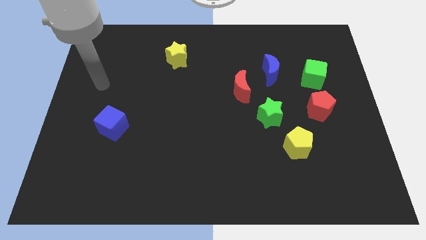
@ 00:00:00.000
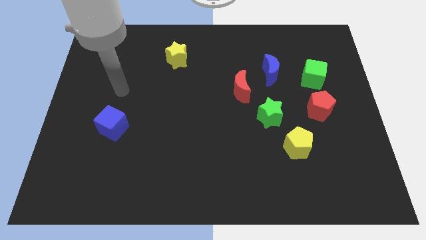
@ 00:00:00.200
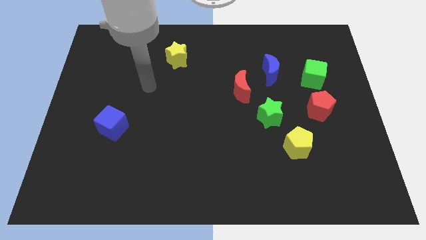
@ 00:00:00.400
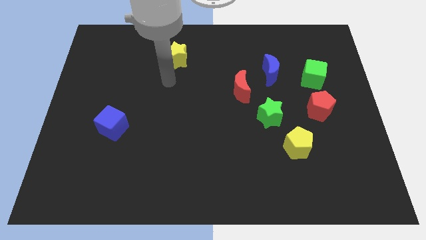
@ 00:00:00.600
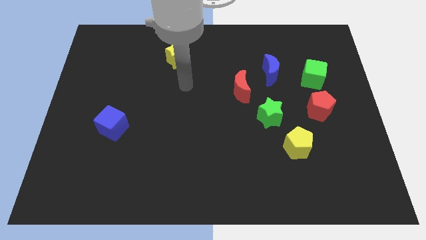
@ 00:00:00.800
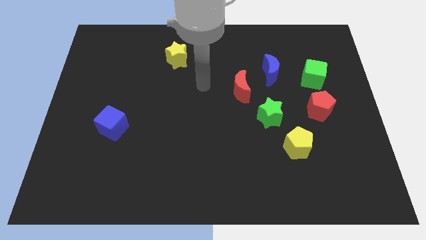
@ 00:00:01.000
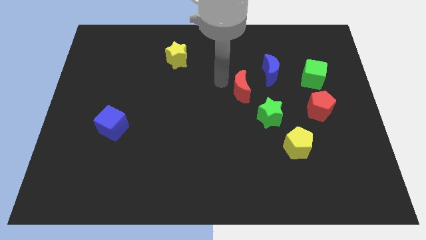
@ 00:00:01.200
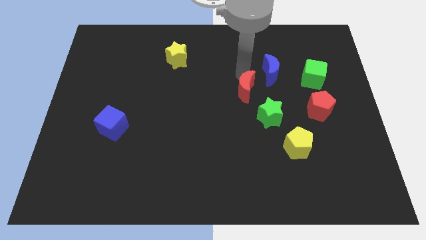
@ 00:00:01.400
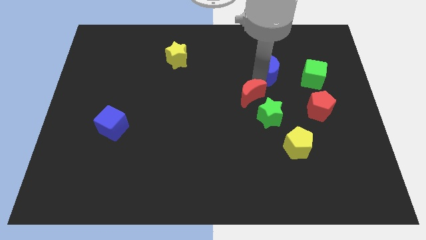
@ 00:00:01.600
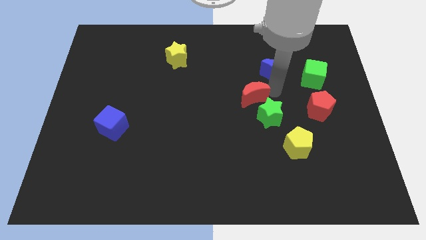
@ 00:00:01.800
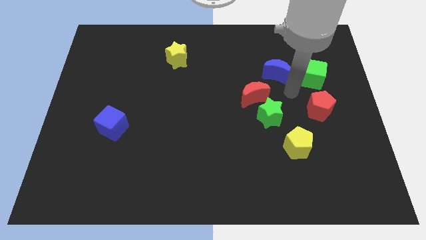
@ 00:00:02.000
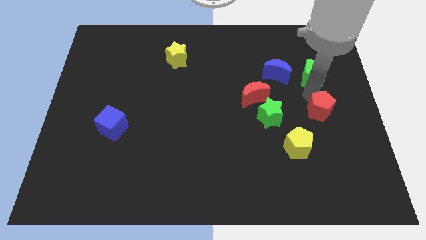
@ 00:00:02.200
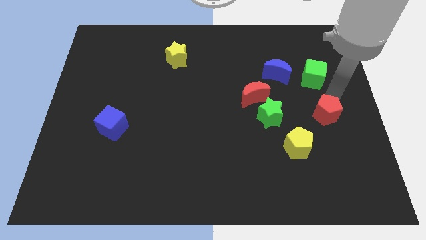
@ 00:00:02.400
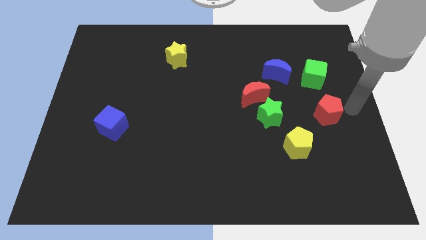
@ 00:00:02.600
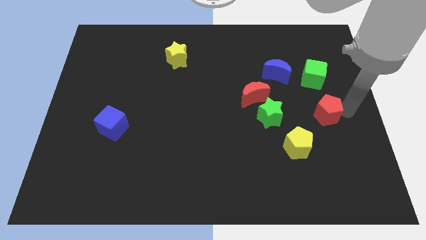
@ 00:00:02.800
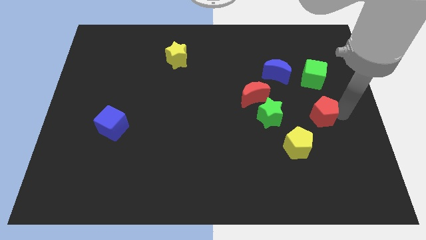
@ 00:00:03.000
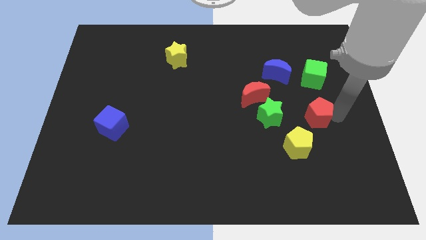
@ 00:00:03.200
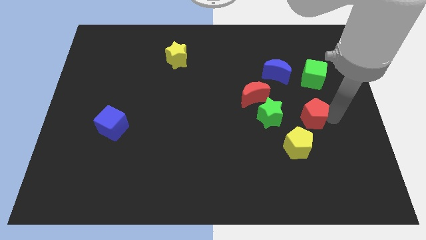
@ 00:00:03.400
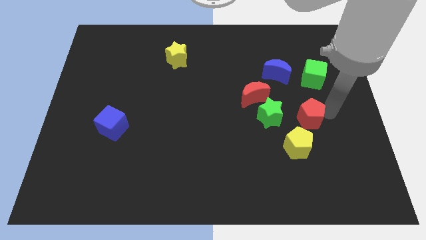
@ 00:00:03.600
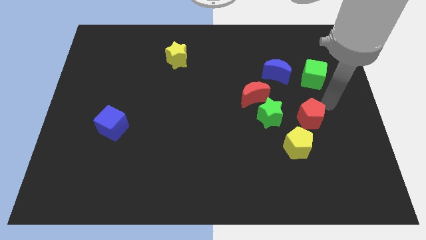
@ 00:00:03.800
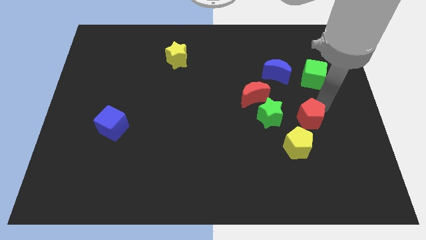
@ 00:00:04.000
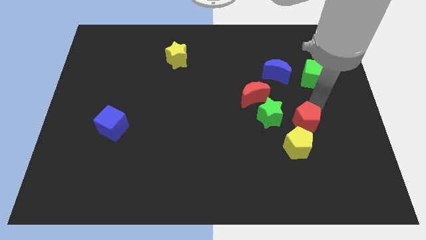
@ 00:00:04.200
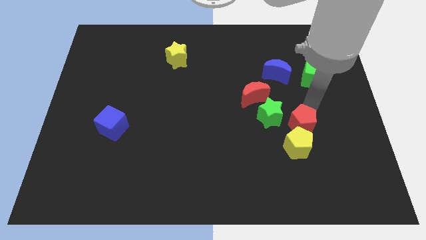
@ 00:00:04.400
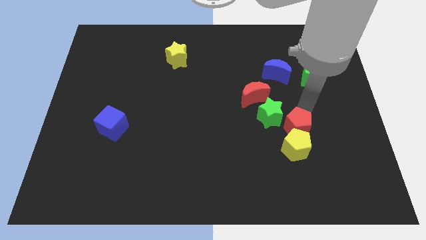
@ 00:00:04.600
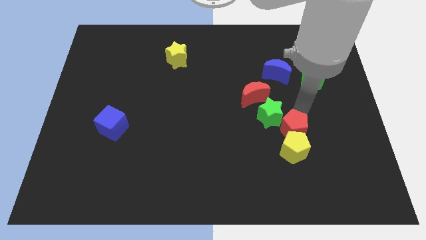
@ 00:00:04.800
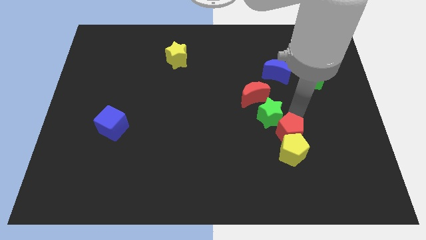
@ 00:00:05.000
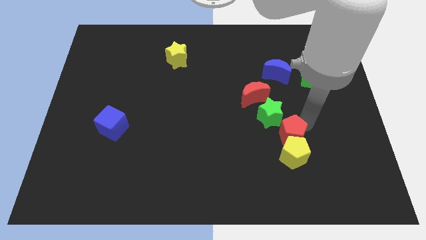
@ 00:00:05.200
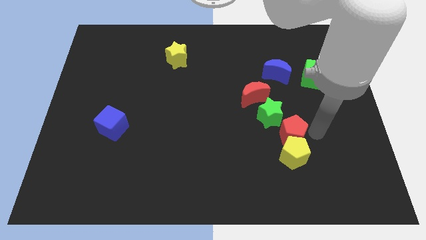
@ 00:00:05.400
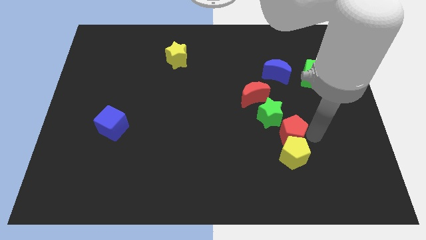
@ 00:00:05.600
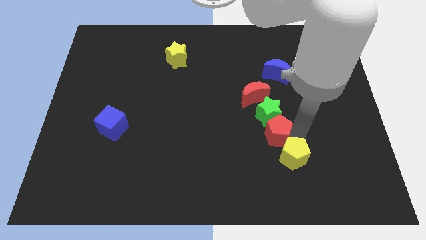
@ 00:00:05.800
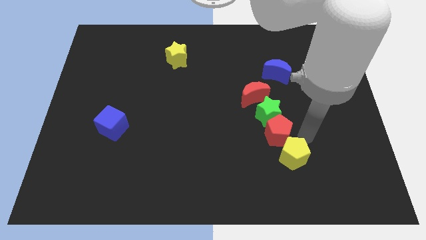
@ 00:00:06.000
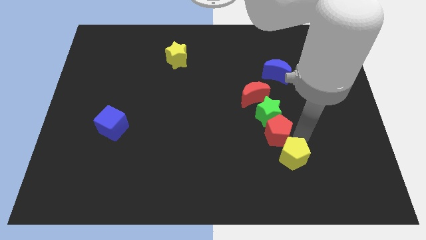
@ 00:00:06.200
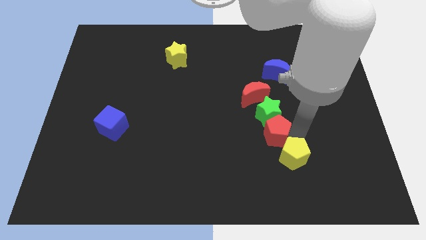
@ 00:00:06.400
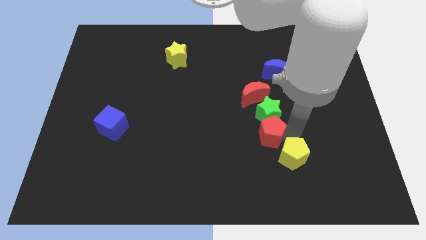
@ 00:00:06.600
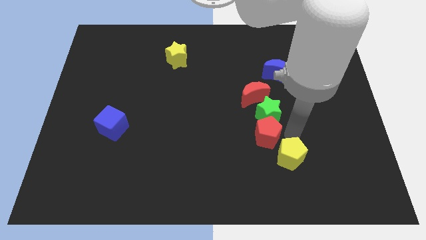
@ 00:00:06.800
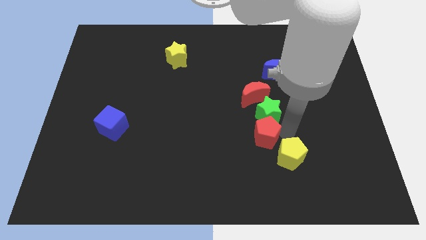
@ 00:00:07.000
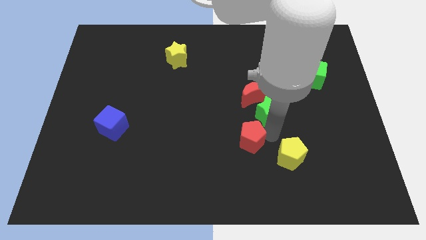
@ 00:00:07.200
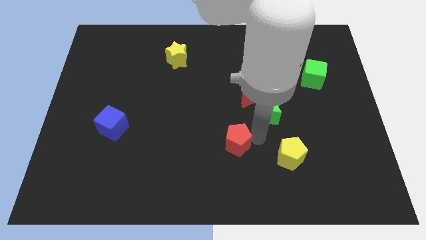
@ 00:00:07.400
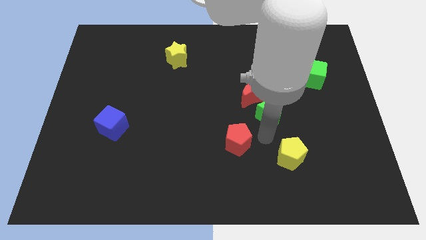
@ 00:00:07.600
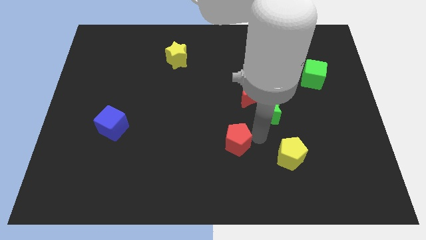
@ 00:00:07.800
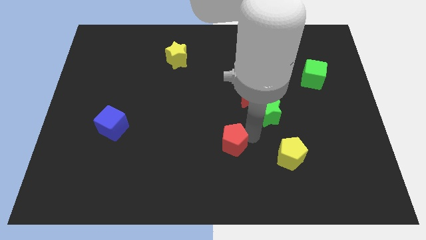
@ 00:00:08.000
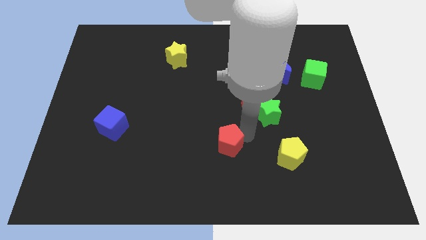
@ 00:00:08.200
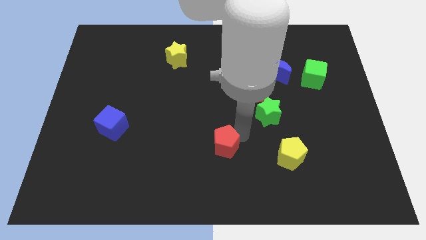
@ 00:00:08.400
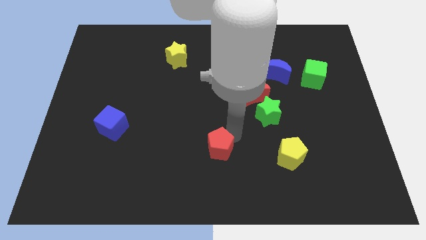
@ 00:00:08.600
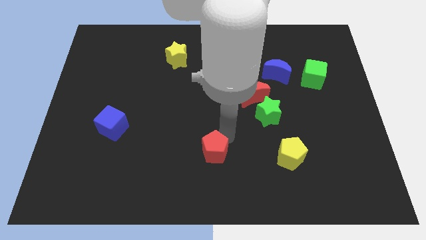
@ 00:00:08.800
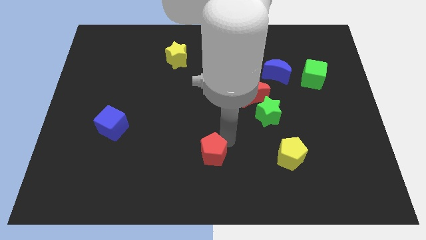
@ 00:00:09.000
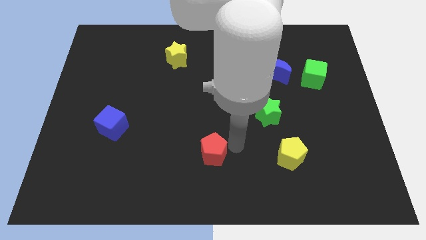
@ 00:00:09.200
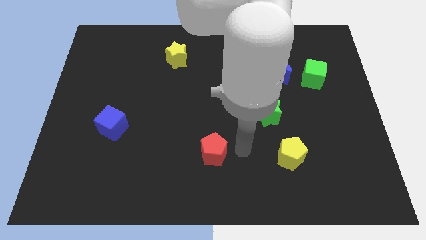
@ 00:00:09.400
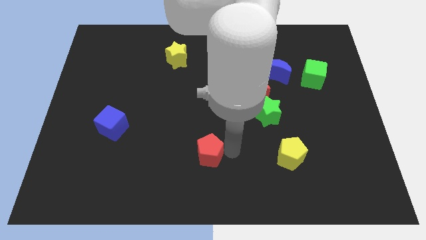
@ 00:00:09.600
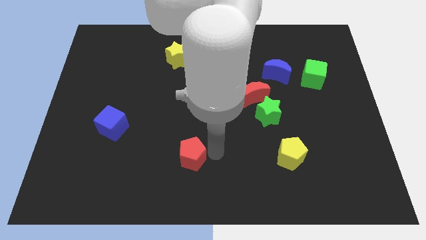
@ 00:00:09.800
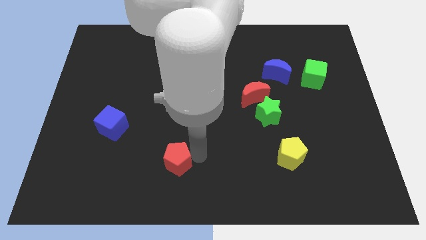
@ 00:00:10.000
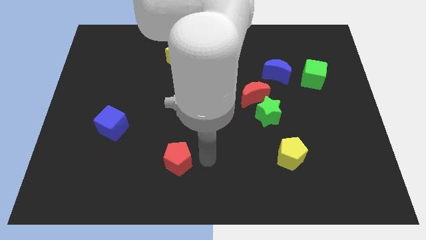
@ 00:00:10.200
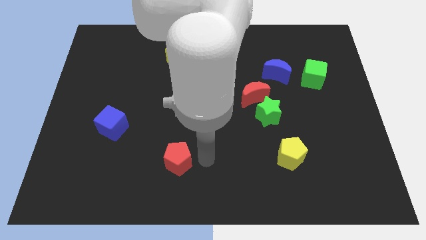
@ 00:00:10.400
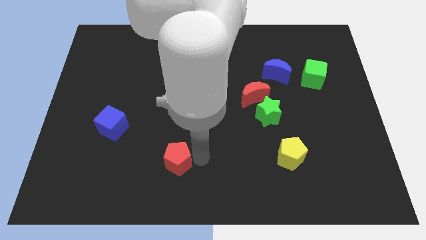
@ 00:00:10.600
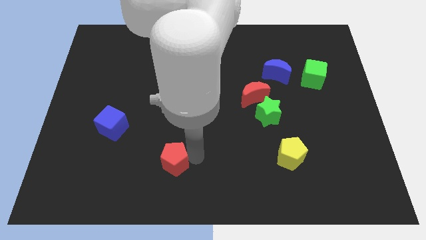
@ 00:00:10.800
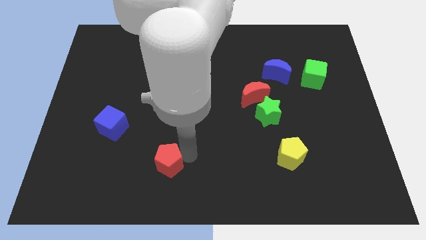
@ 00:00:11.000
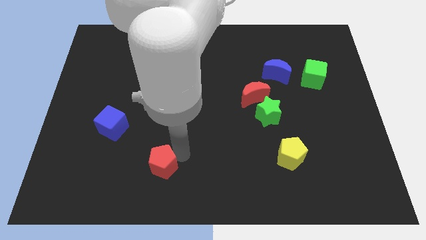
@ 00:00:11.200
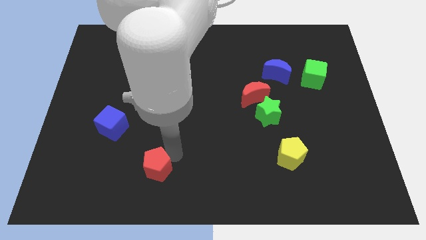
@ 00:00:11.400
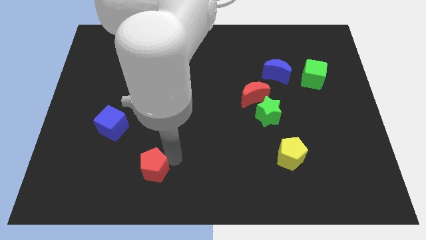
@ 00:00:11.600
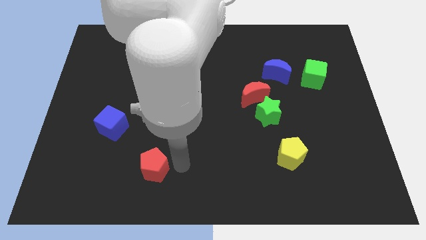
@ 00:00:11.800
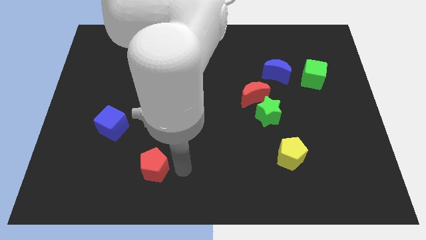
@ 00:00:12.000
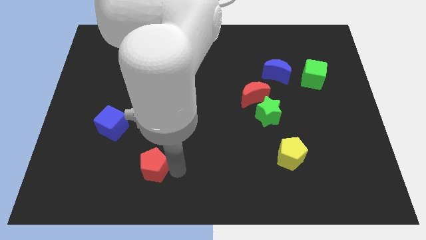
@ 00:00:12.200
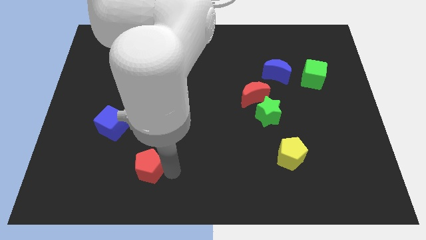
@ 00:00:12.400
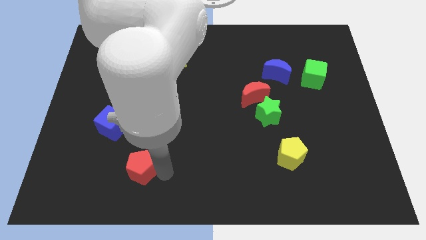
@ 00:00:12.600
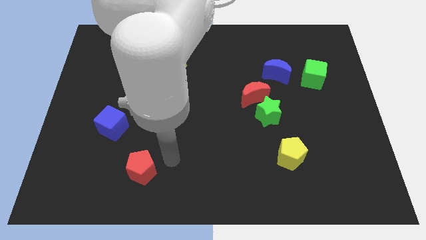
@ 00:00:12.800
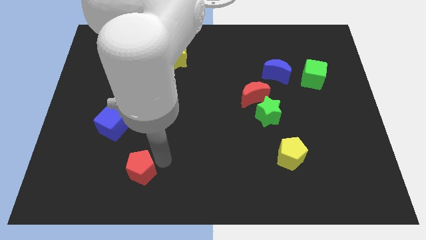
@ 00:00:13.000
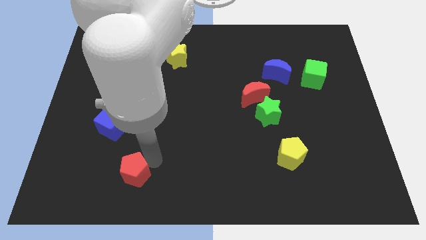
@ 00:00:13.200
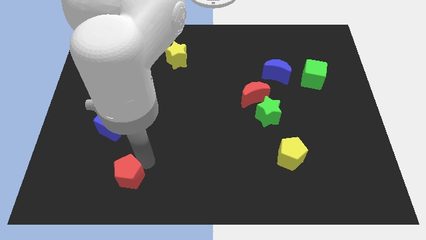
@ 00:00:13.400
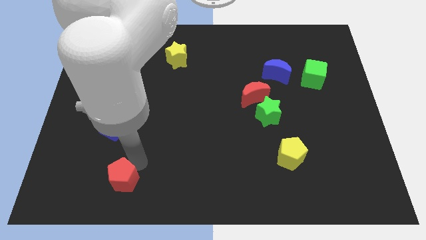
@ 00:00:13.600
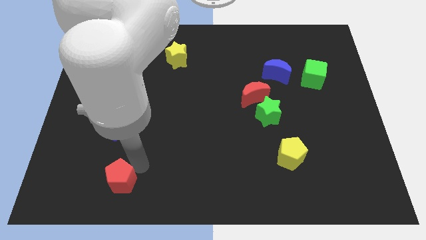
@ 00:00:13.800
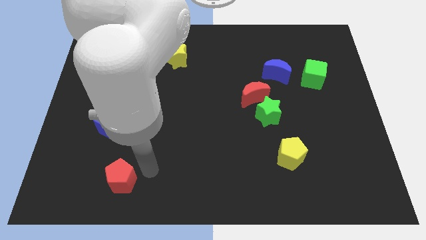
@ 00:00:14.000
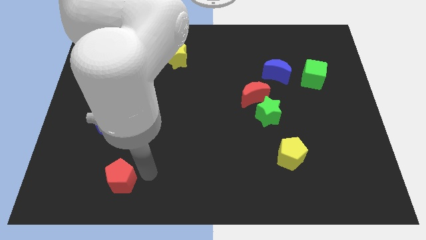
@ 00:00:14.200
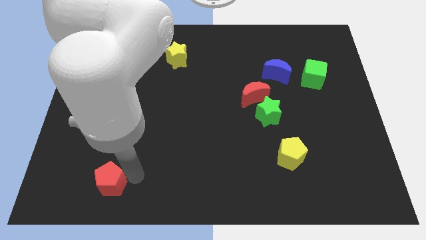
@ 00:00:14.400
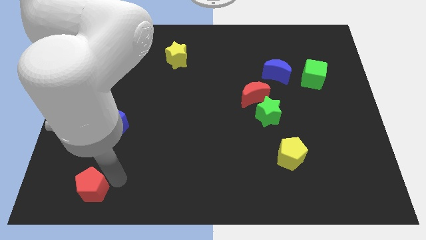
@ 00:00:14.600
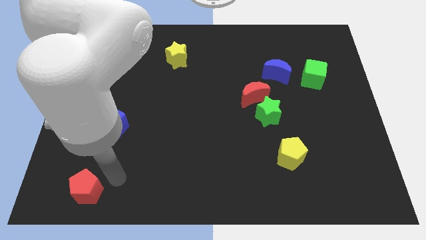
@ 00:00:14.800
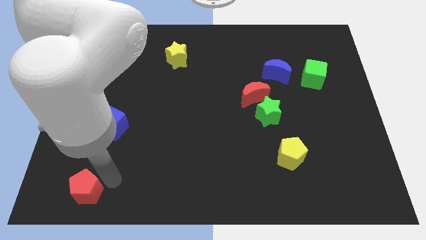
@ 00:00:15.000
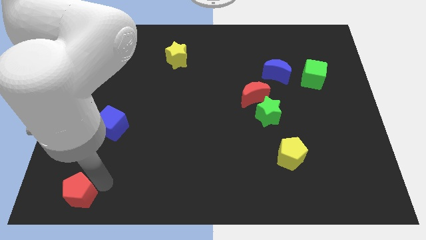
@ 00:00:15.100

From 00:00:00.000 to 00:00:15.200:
move the red pentagon to the lower left corner
